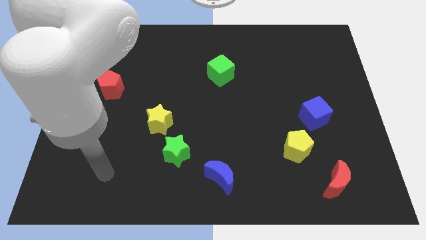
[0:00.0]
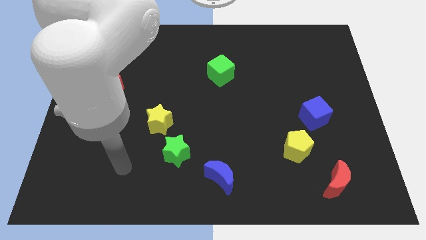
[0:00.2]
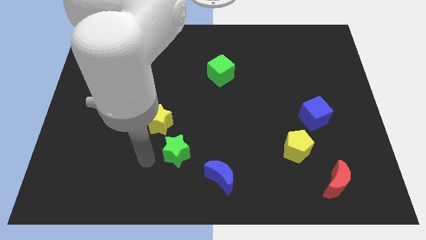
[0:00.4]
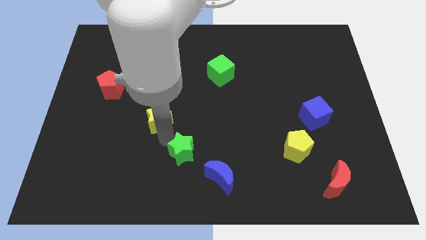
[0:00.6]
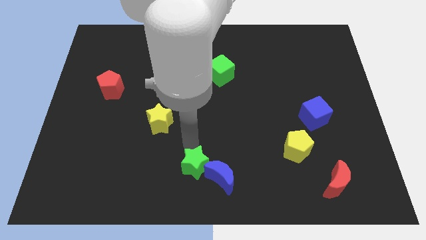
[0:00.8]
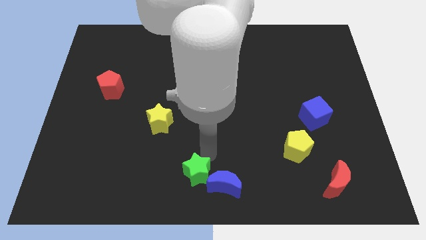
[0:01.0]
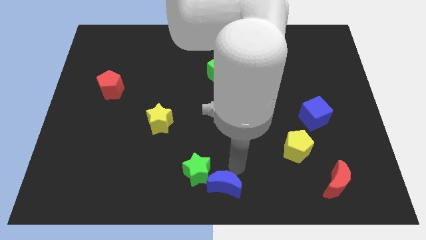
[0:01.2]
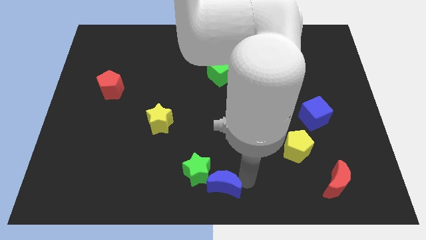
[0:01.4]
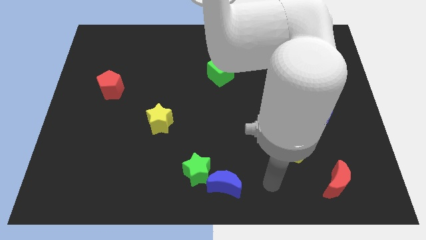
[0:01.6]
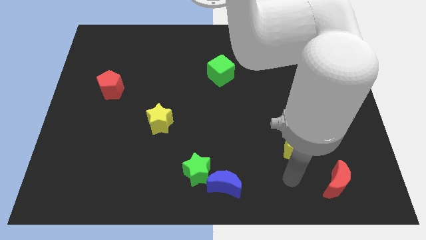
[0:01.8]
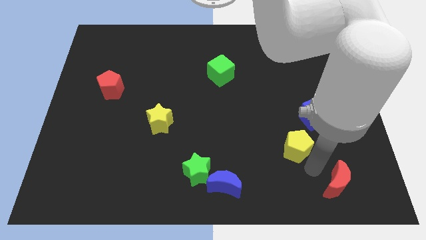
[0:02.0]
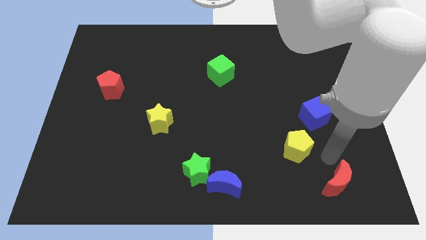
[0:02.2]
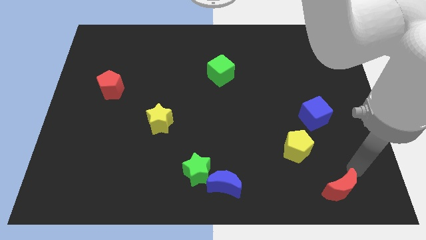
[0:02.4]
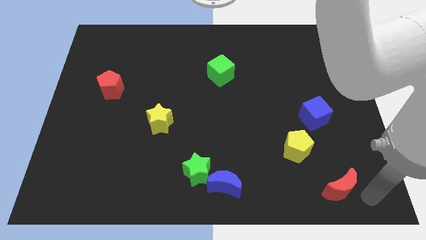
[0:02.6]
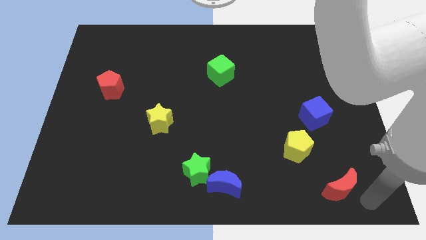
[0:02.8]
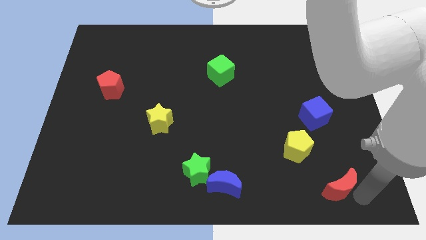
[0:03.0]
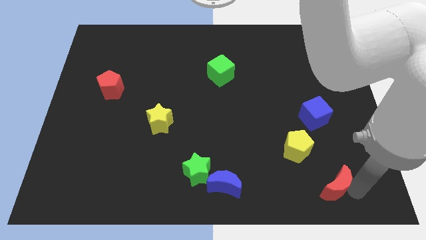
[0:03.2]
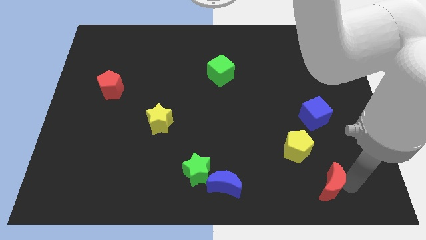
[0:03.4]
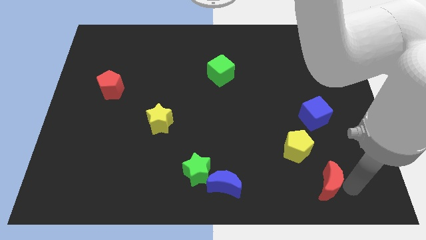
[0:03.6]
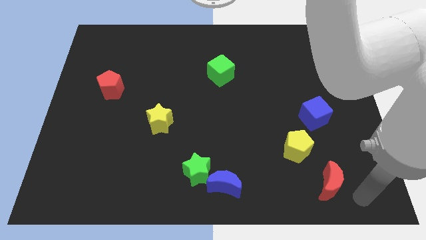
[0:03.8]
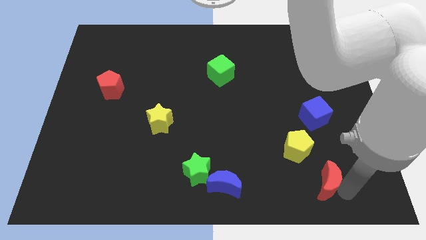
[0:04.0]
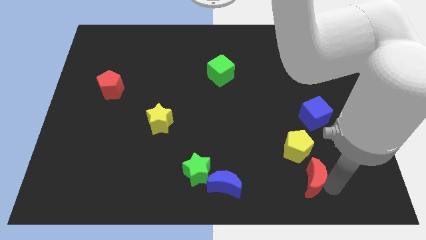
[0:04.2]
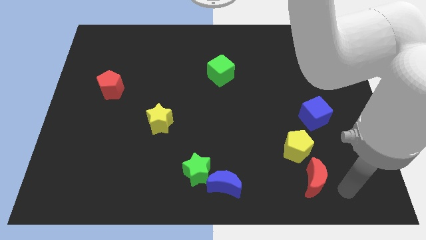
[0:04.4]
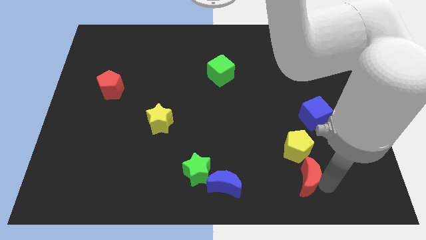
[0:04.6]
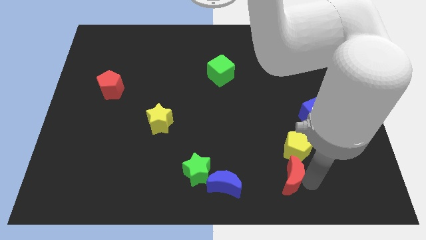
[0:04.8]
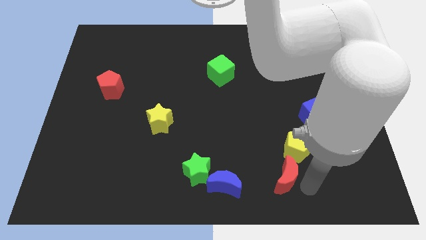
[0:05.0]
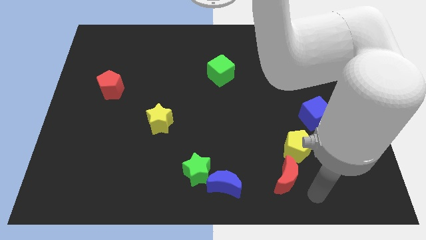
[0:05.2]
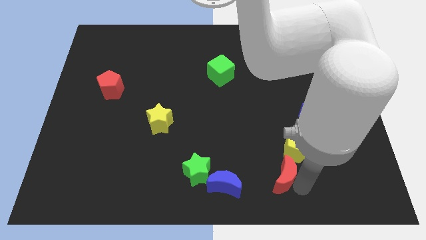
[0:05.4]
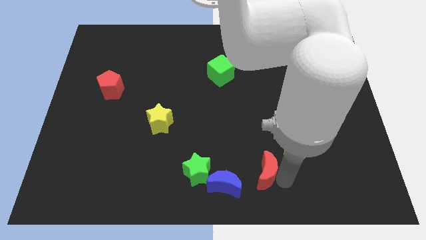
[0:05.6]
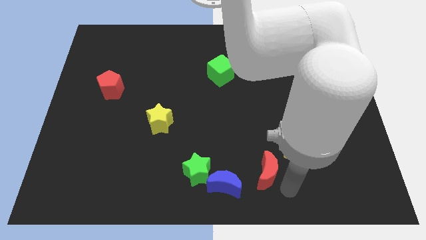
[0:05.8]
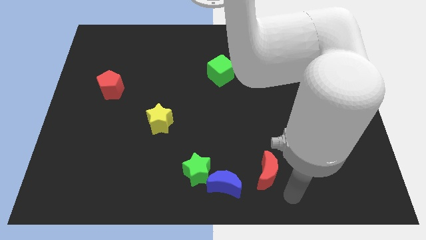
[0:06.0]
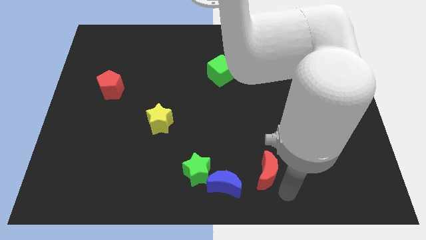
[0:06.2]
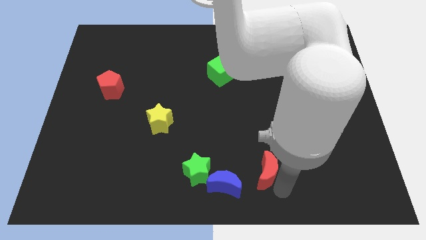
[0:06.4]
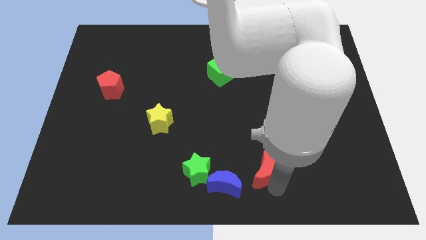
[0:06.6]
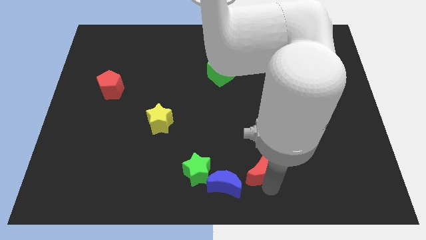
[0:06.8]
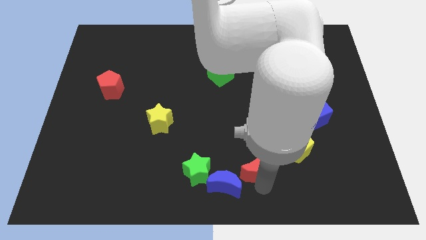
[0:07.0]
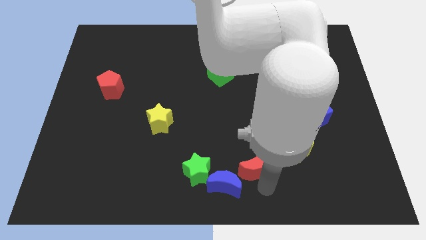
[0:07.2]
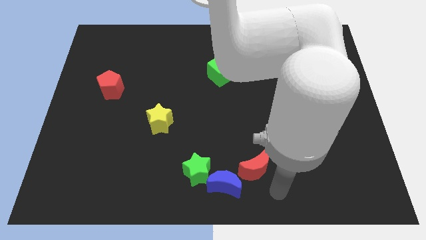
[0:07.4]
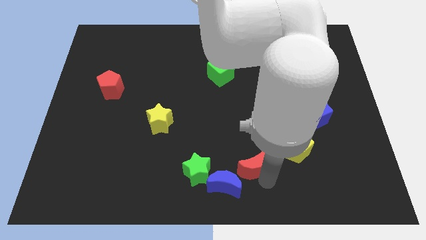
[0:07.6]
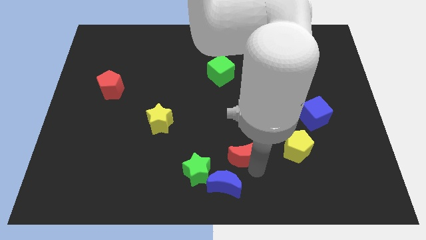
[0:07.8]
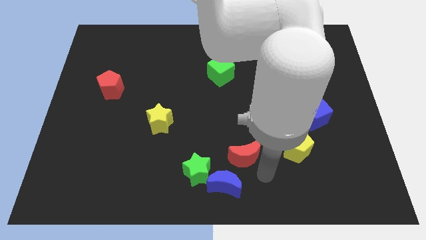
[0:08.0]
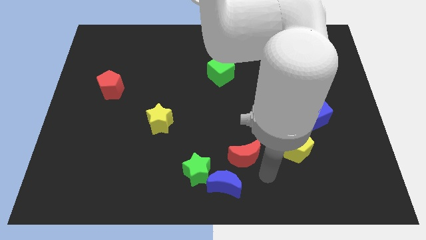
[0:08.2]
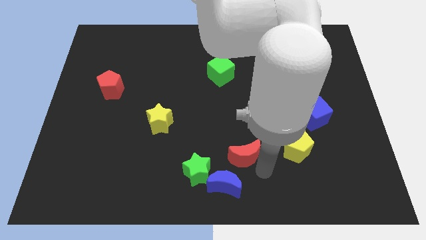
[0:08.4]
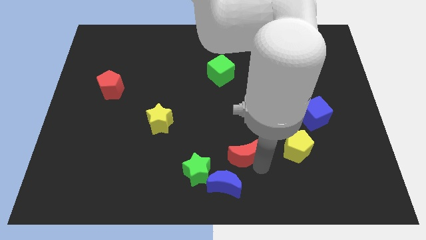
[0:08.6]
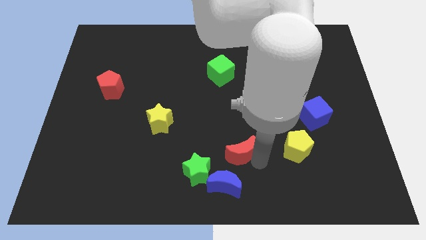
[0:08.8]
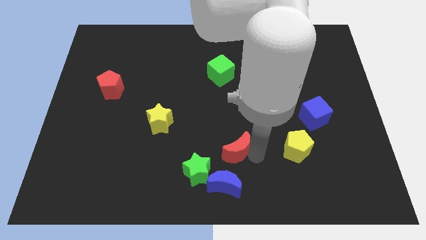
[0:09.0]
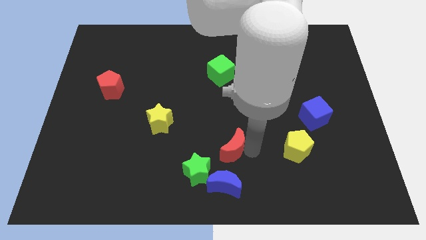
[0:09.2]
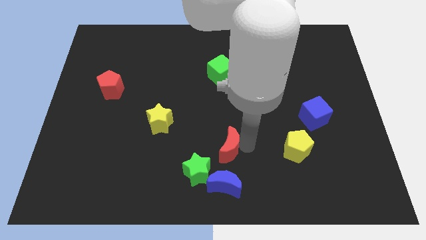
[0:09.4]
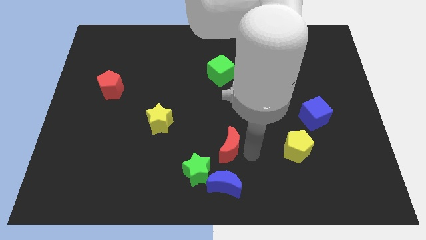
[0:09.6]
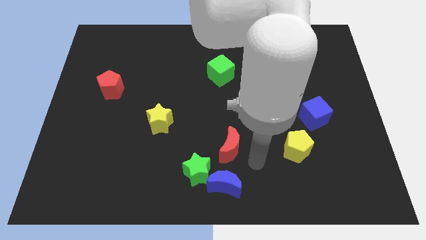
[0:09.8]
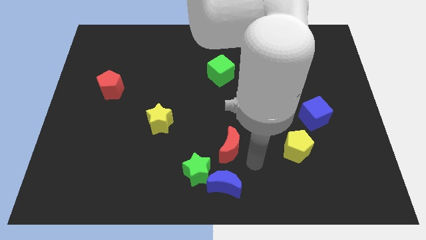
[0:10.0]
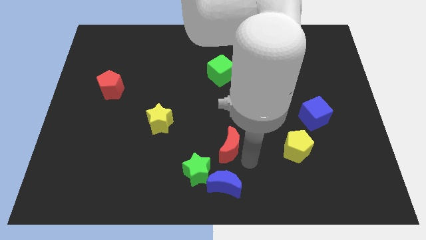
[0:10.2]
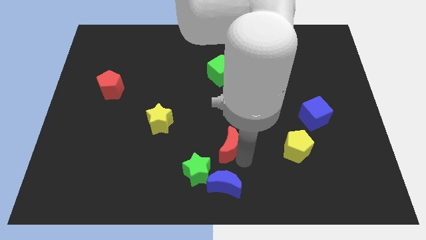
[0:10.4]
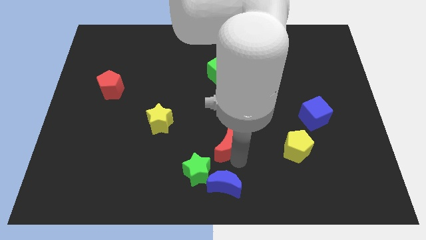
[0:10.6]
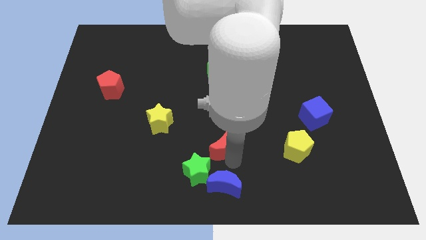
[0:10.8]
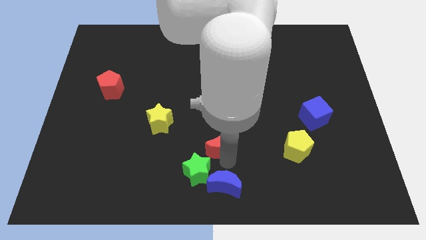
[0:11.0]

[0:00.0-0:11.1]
move the red moon above the green star

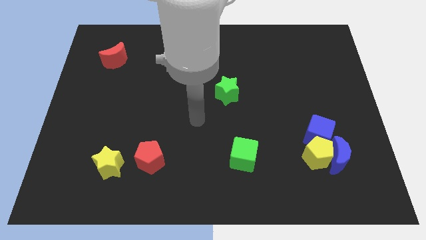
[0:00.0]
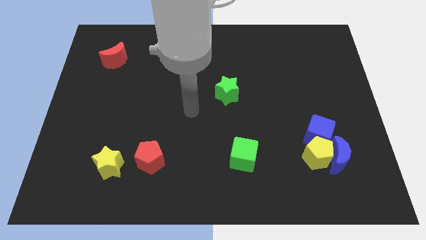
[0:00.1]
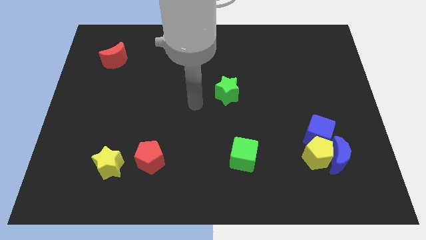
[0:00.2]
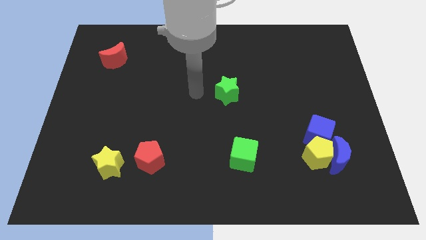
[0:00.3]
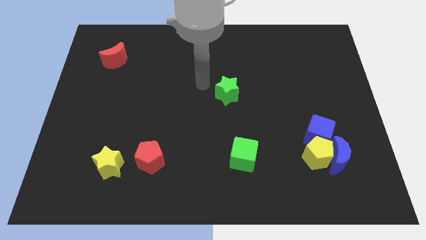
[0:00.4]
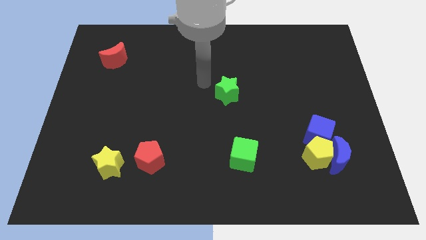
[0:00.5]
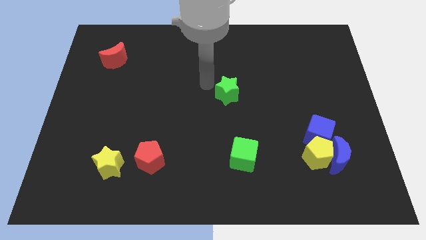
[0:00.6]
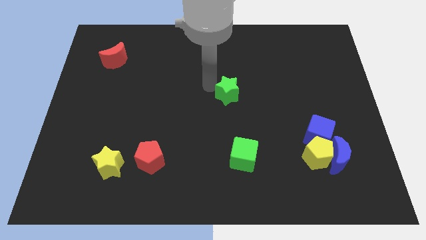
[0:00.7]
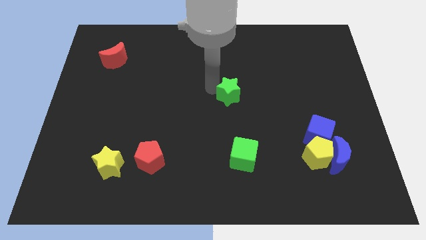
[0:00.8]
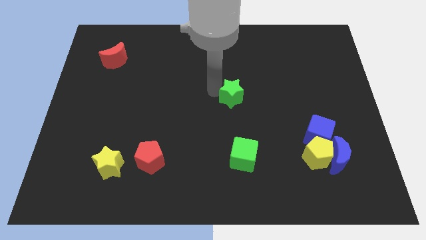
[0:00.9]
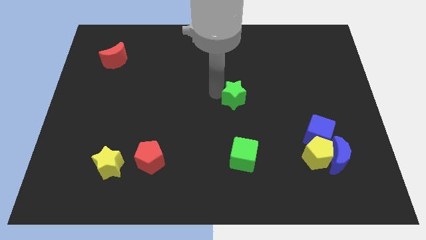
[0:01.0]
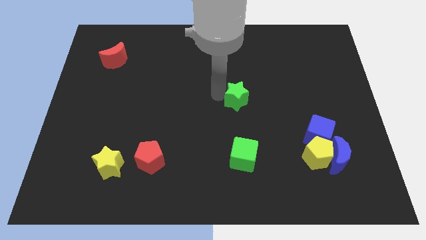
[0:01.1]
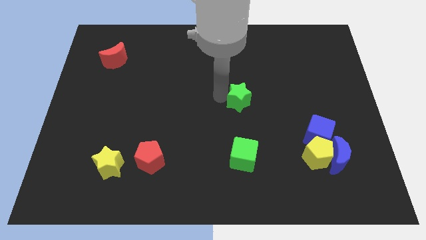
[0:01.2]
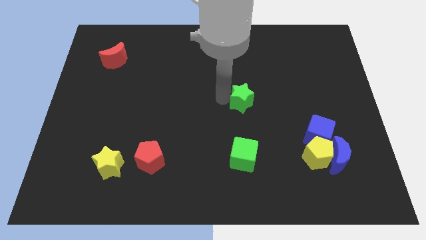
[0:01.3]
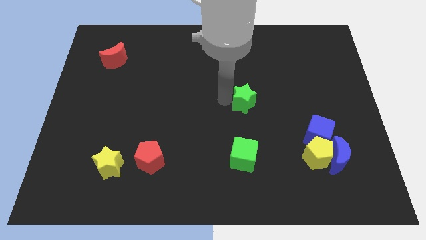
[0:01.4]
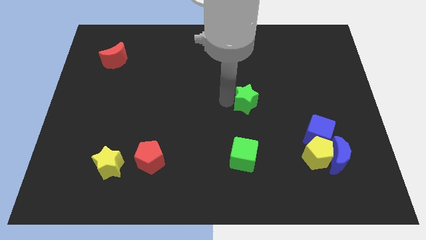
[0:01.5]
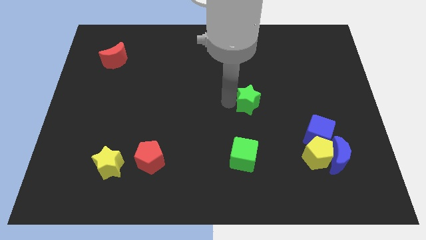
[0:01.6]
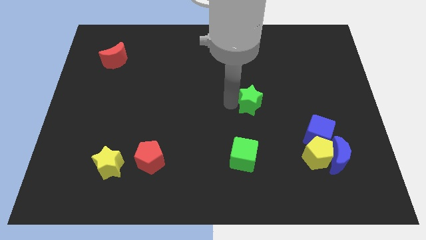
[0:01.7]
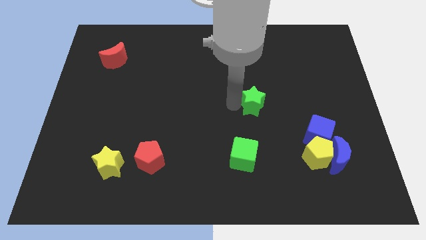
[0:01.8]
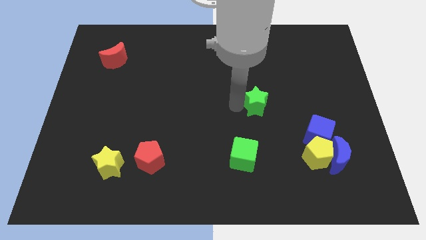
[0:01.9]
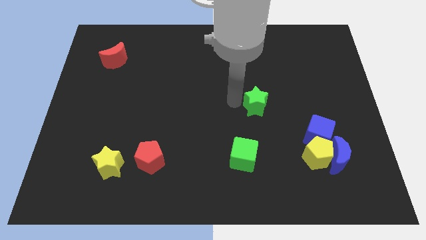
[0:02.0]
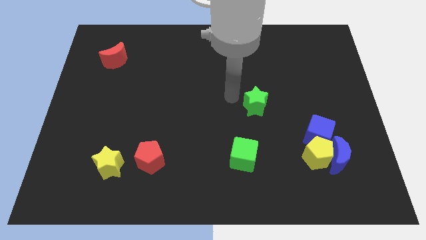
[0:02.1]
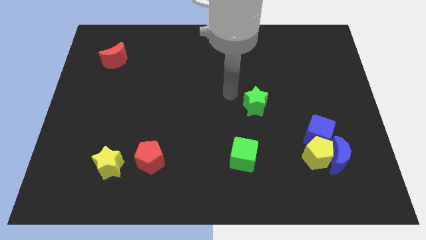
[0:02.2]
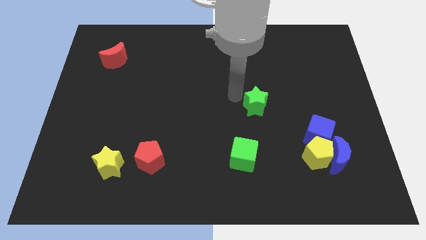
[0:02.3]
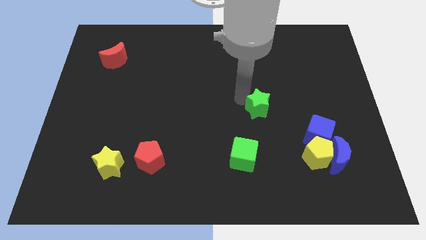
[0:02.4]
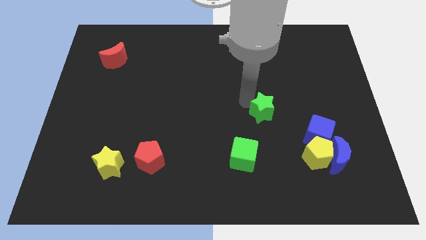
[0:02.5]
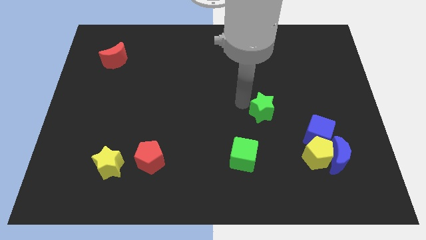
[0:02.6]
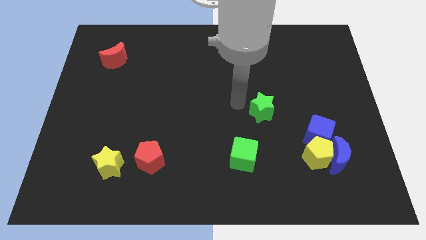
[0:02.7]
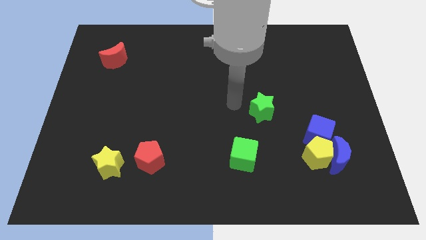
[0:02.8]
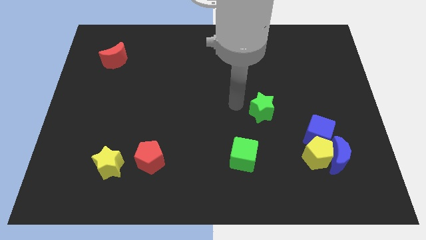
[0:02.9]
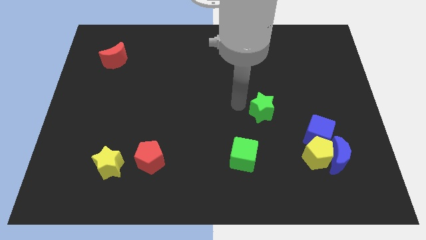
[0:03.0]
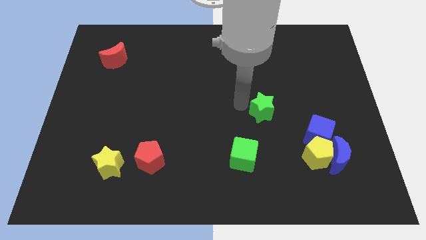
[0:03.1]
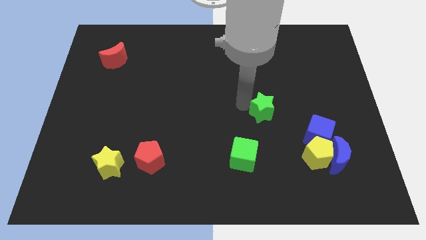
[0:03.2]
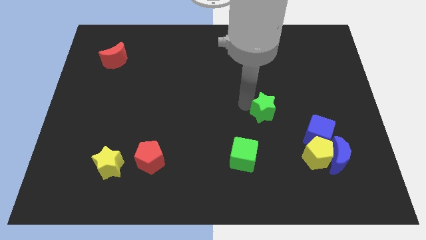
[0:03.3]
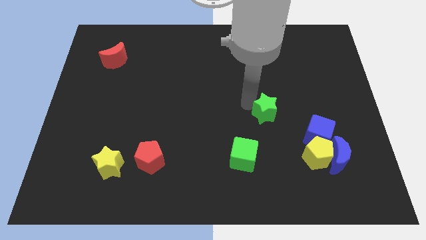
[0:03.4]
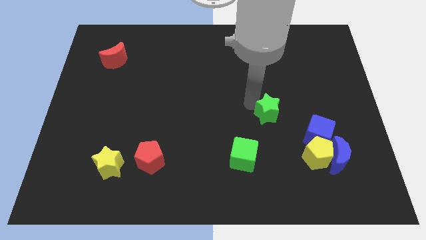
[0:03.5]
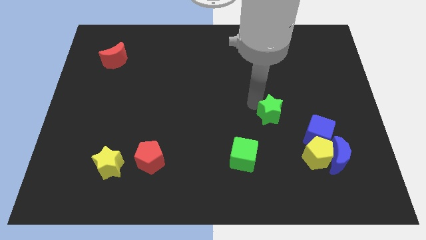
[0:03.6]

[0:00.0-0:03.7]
move the green star to the top left side of the blue cube
